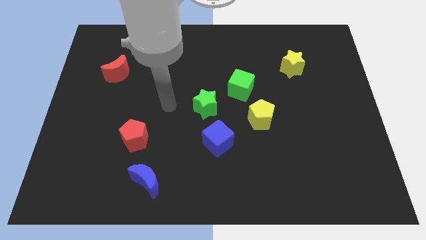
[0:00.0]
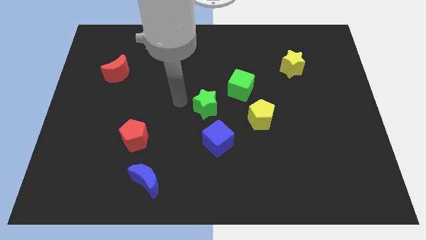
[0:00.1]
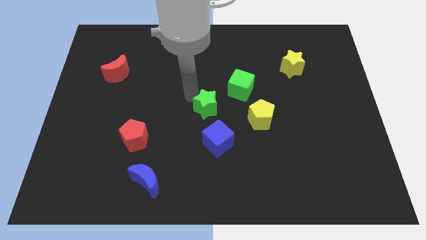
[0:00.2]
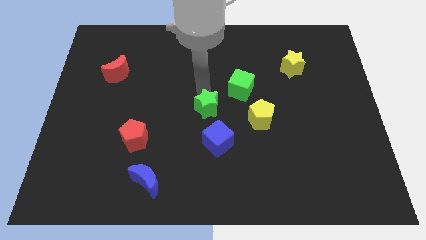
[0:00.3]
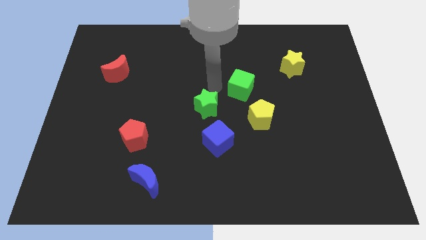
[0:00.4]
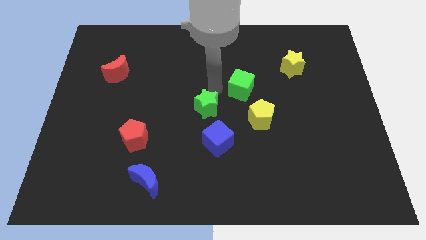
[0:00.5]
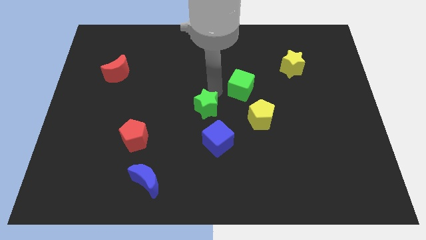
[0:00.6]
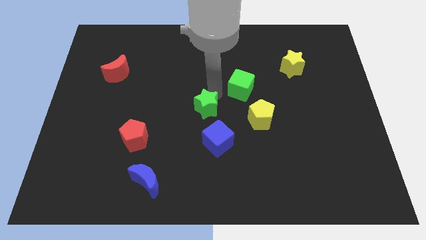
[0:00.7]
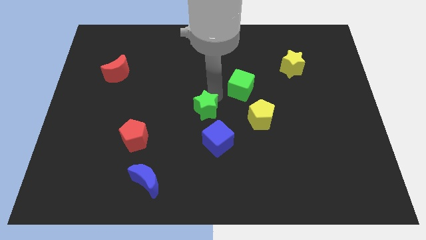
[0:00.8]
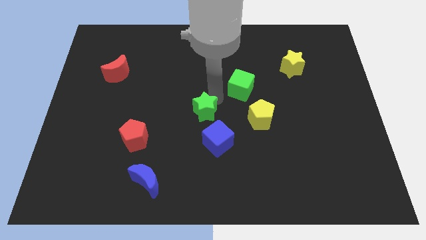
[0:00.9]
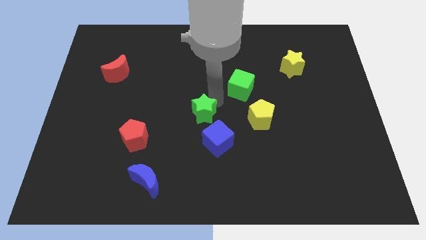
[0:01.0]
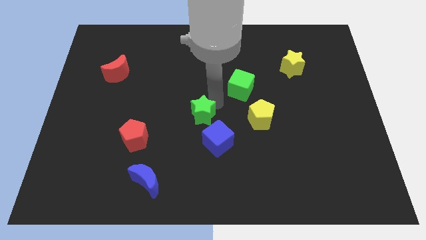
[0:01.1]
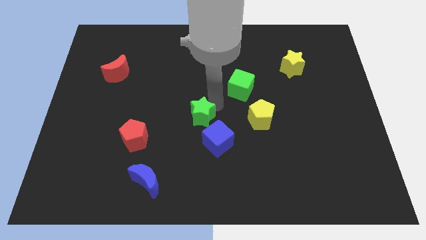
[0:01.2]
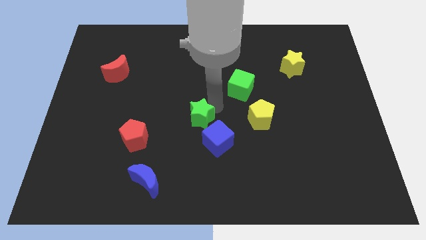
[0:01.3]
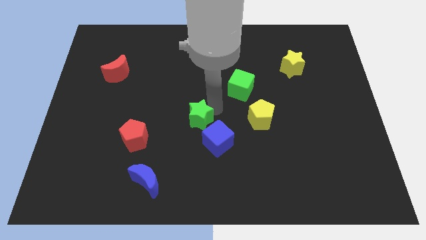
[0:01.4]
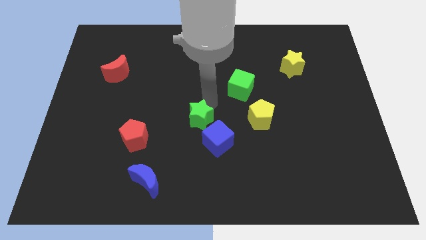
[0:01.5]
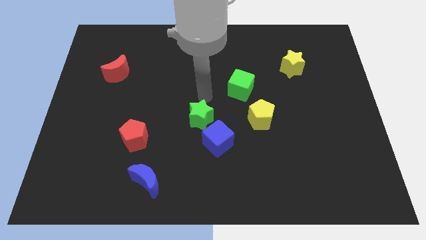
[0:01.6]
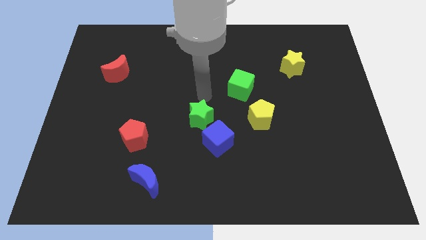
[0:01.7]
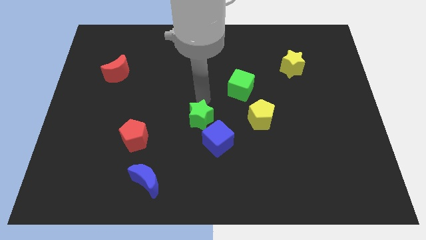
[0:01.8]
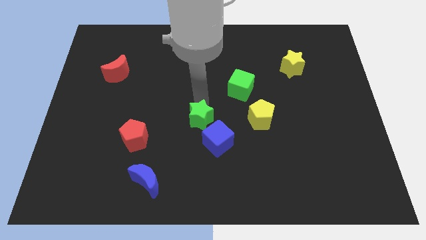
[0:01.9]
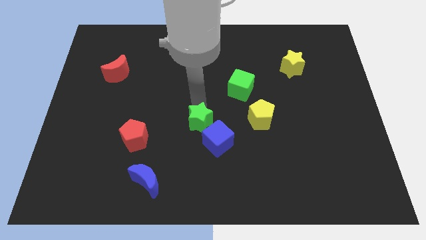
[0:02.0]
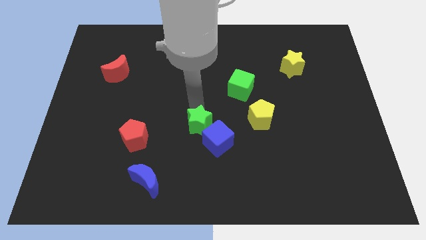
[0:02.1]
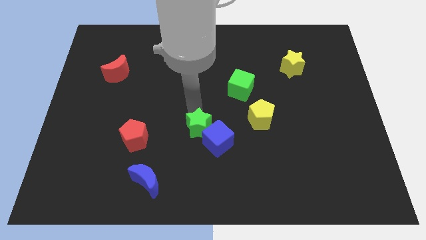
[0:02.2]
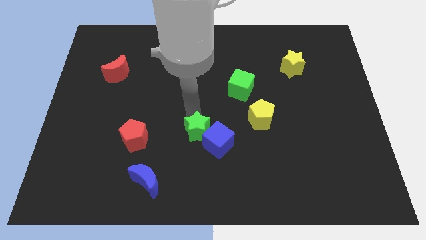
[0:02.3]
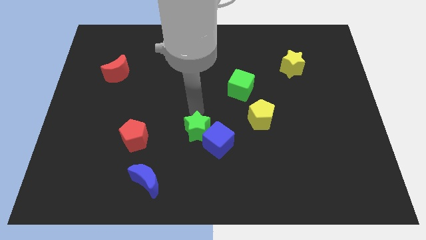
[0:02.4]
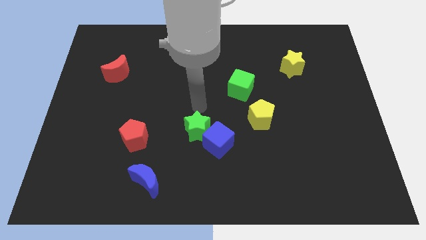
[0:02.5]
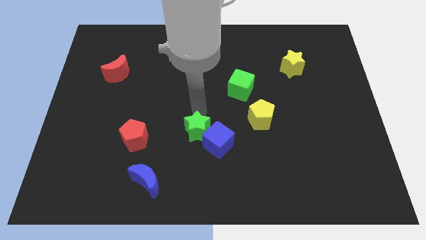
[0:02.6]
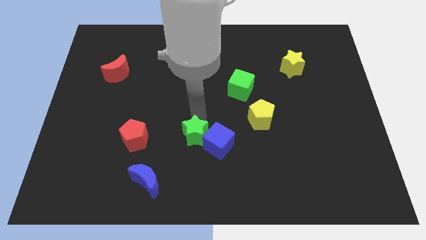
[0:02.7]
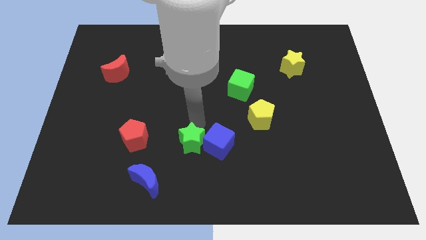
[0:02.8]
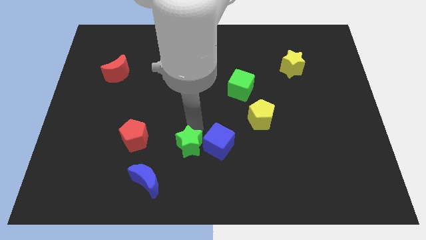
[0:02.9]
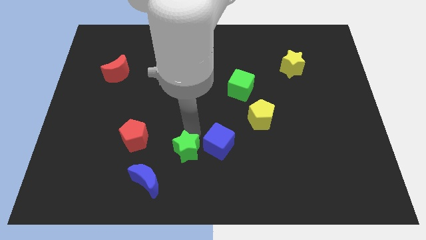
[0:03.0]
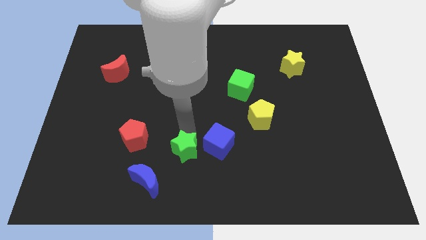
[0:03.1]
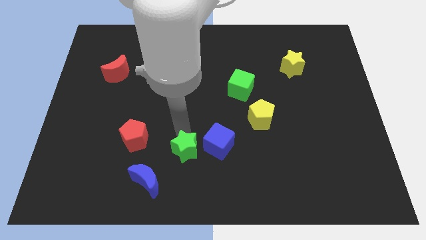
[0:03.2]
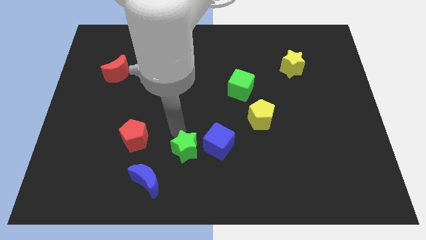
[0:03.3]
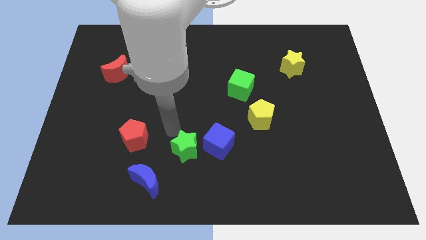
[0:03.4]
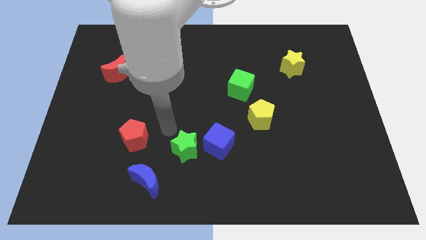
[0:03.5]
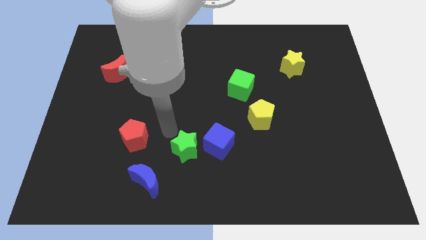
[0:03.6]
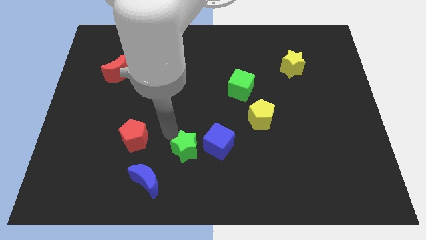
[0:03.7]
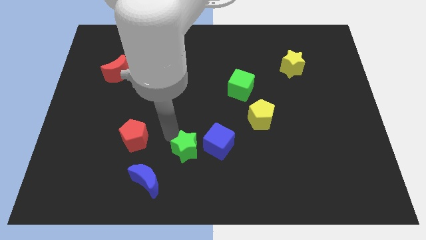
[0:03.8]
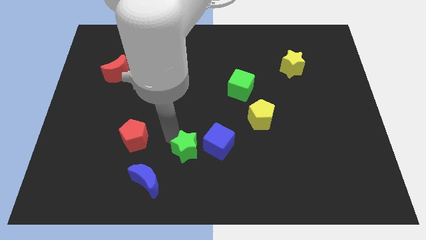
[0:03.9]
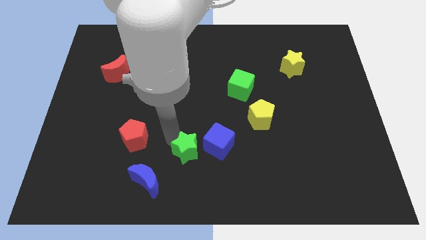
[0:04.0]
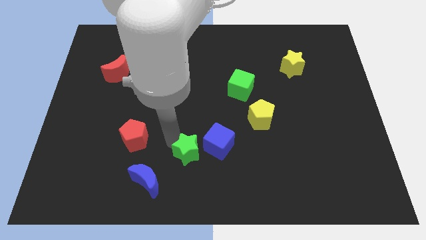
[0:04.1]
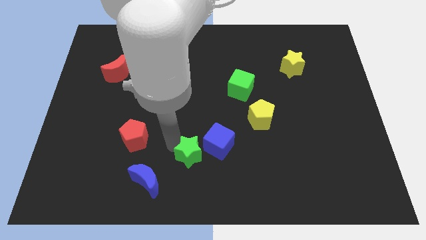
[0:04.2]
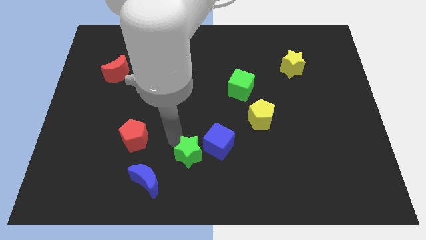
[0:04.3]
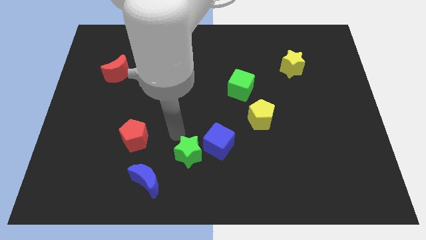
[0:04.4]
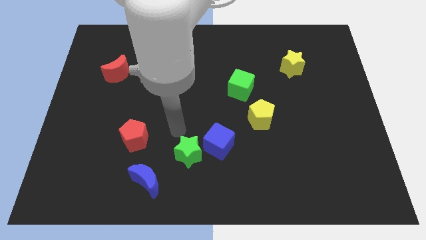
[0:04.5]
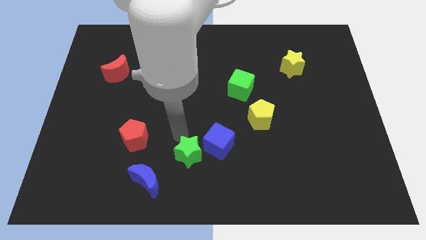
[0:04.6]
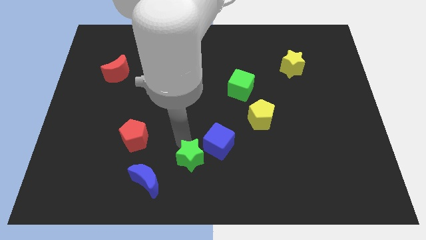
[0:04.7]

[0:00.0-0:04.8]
move the green star to the bottom

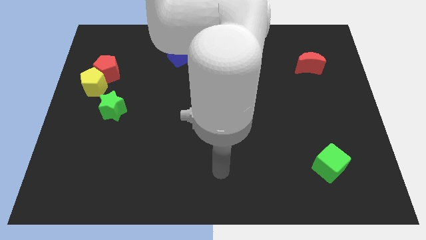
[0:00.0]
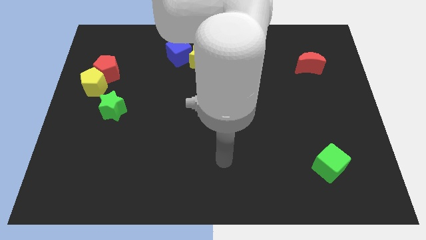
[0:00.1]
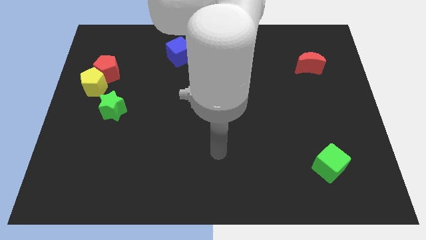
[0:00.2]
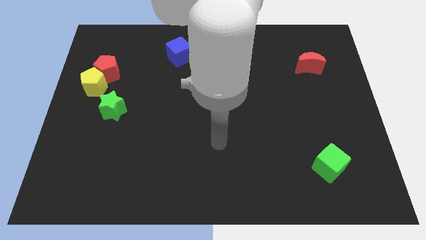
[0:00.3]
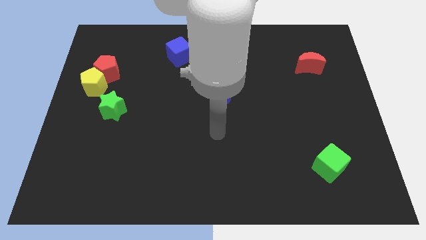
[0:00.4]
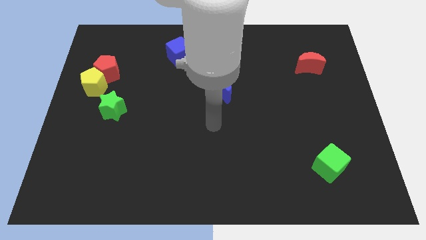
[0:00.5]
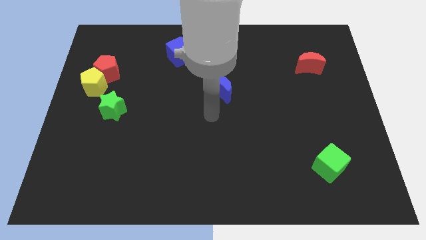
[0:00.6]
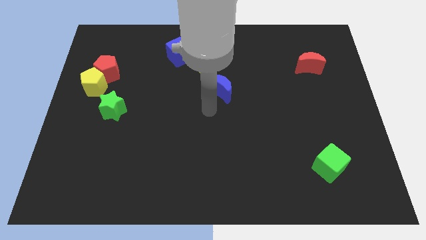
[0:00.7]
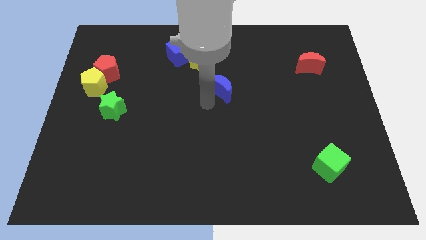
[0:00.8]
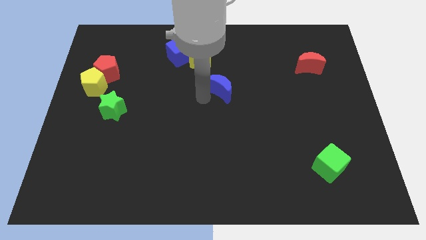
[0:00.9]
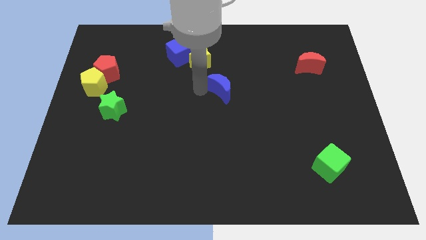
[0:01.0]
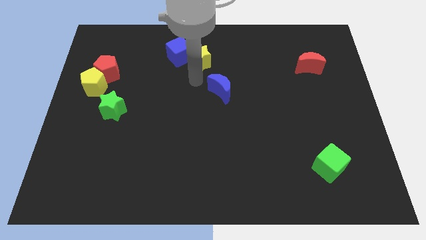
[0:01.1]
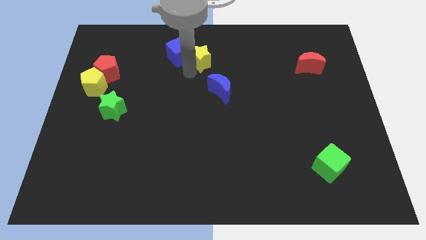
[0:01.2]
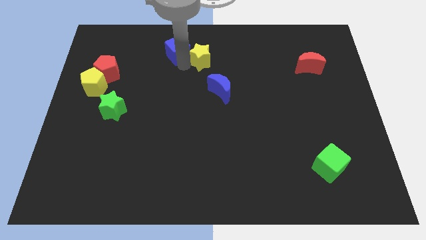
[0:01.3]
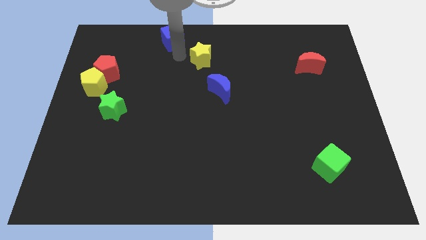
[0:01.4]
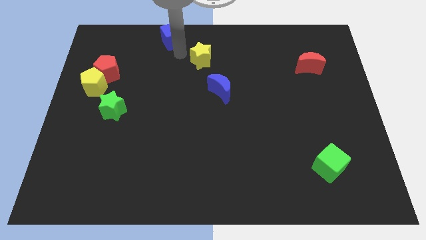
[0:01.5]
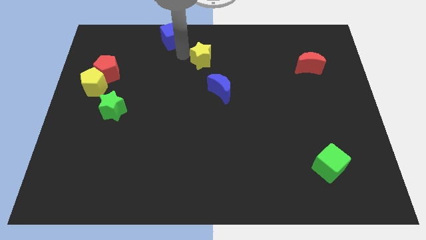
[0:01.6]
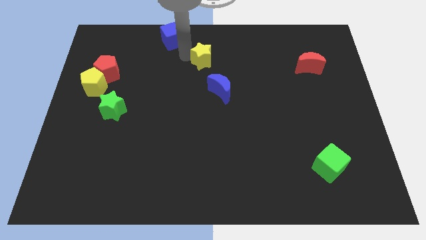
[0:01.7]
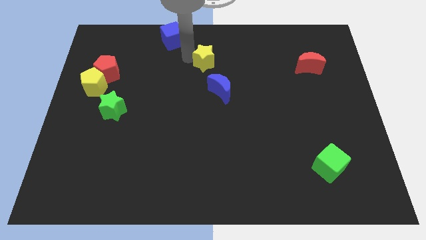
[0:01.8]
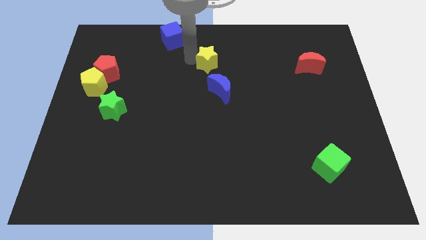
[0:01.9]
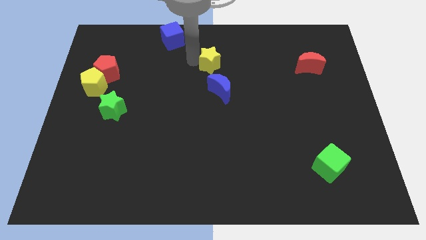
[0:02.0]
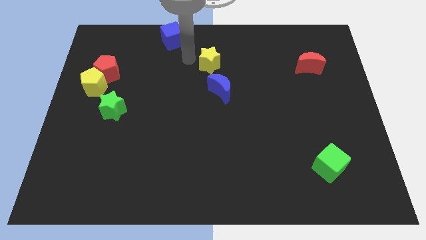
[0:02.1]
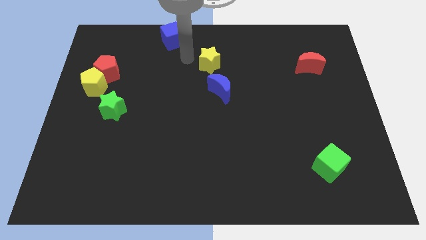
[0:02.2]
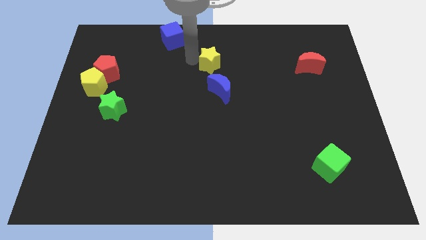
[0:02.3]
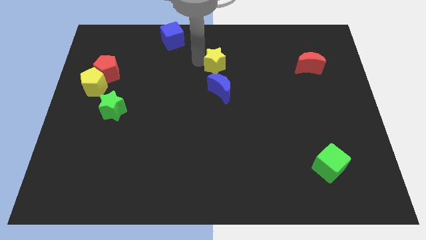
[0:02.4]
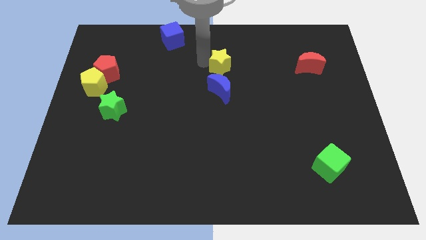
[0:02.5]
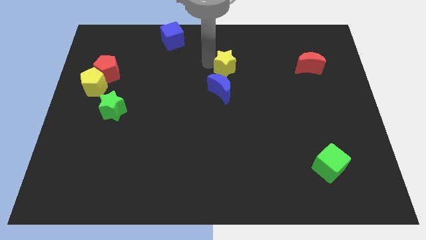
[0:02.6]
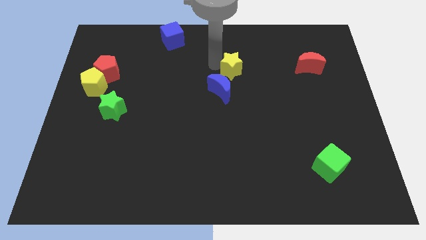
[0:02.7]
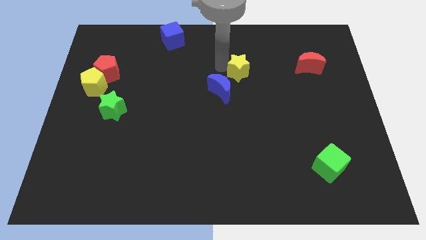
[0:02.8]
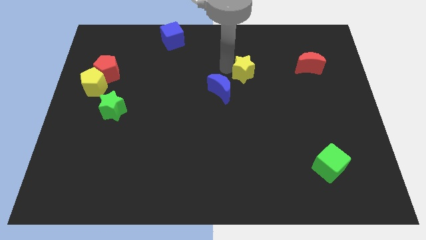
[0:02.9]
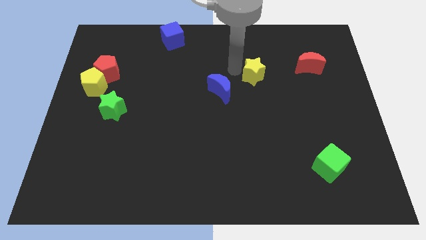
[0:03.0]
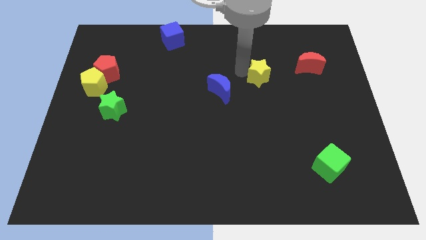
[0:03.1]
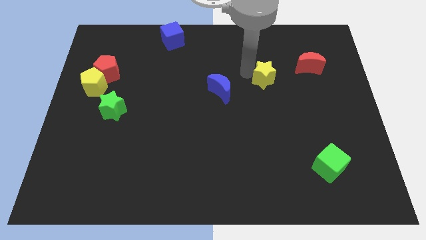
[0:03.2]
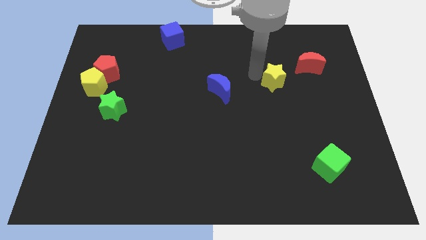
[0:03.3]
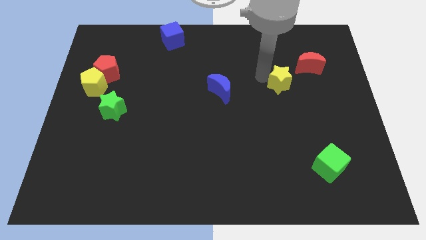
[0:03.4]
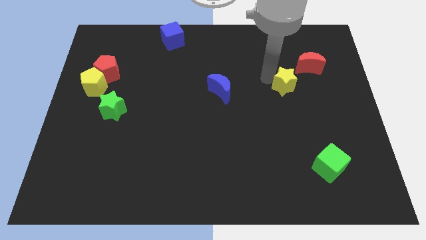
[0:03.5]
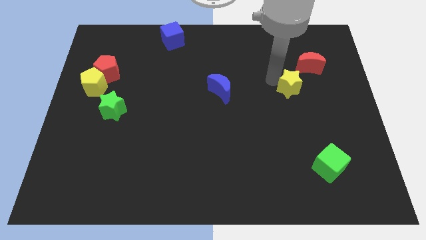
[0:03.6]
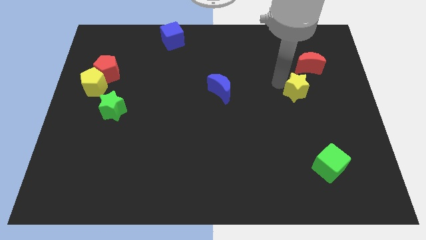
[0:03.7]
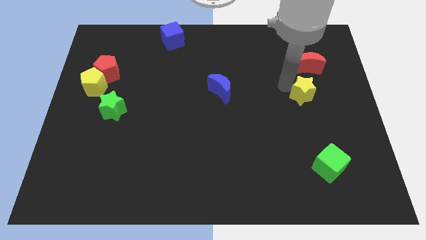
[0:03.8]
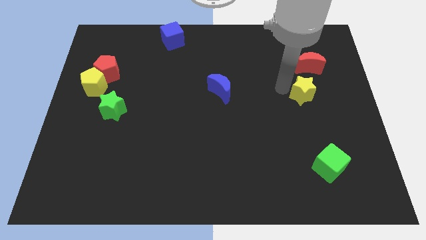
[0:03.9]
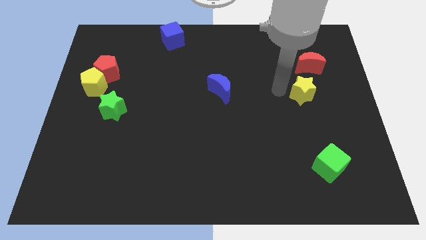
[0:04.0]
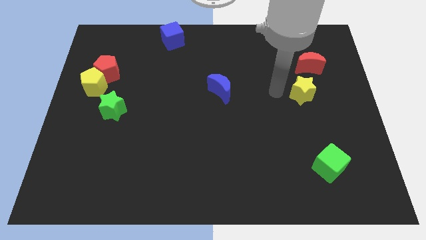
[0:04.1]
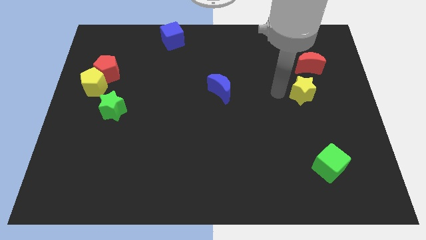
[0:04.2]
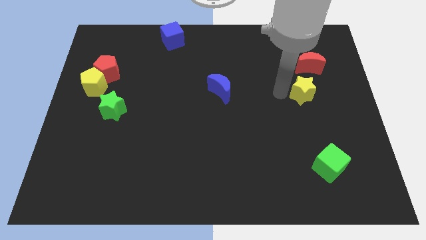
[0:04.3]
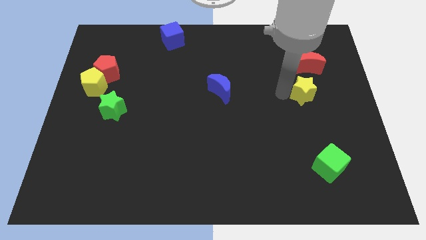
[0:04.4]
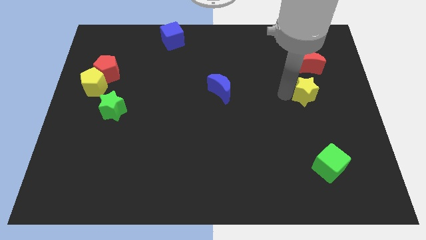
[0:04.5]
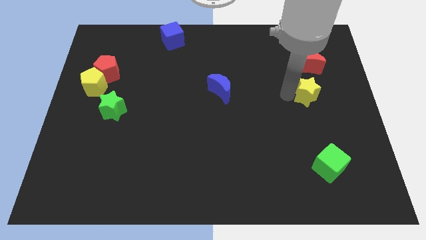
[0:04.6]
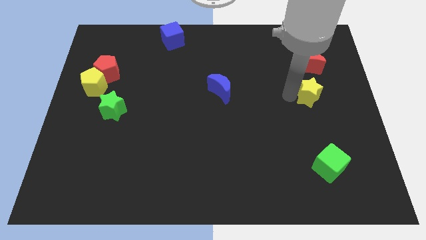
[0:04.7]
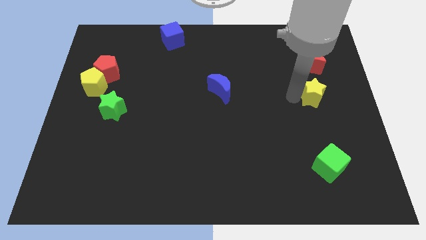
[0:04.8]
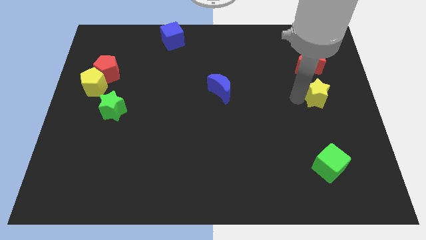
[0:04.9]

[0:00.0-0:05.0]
move the yellow star to the right side of the board
